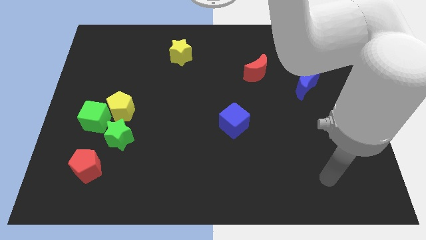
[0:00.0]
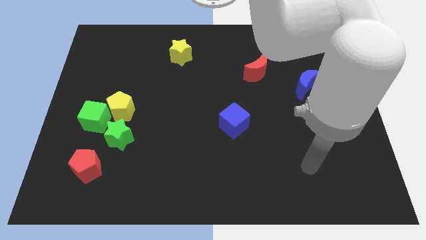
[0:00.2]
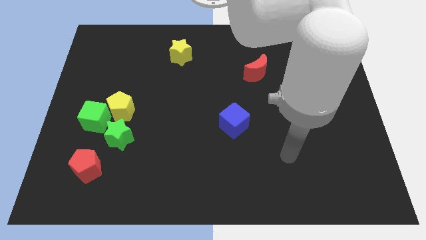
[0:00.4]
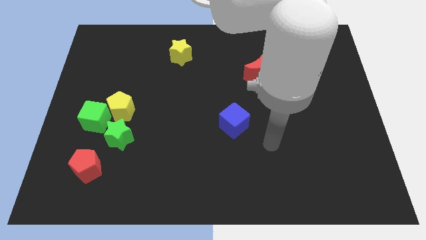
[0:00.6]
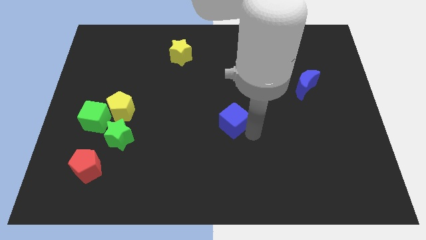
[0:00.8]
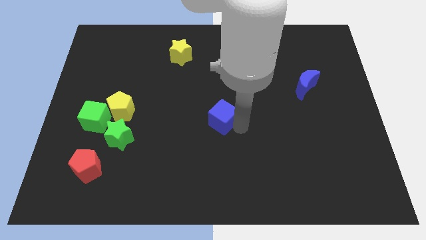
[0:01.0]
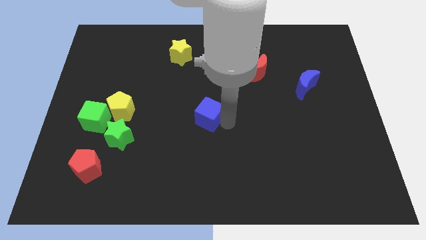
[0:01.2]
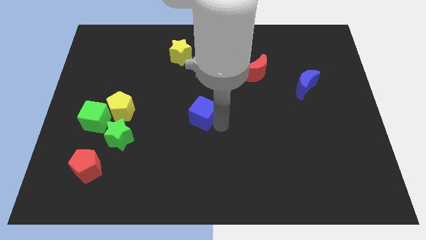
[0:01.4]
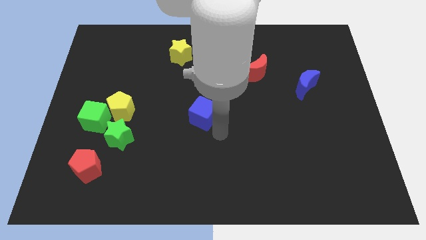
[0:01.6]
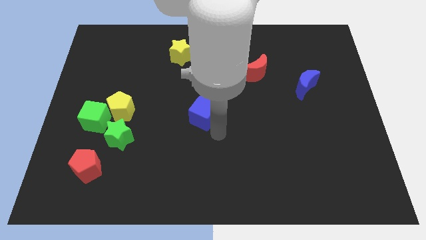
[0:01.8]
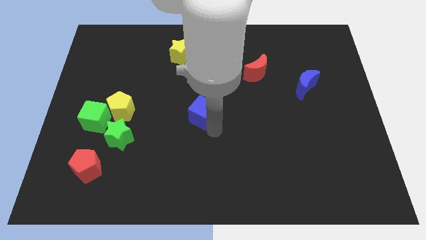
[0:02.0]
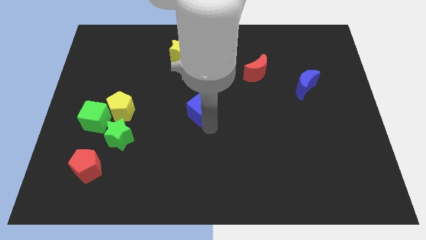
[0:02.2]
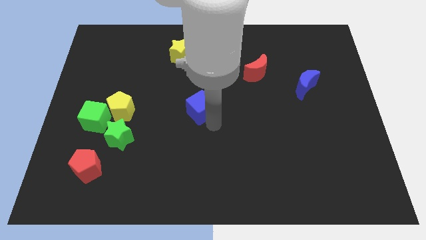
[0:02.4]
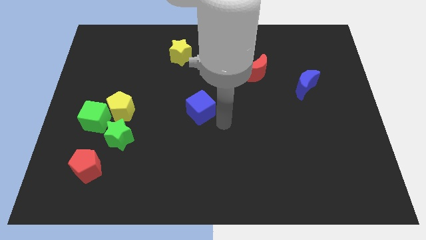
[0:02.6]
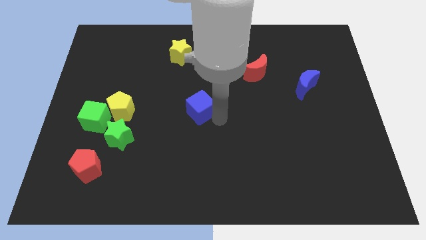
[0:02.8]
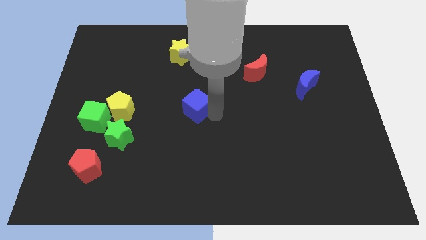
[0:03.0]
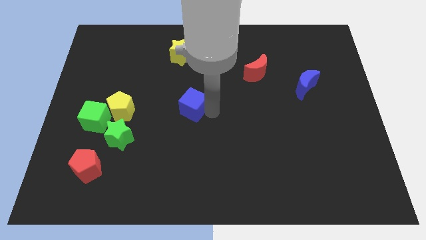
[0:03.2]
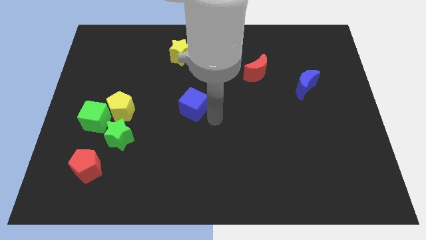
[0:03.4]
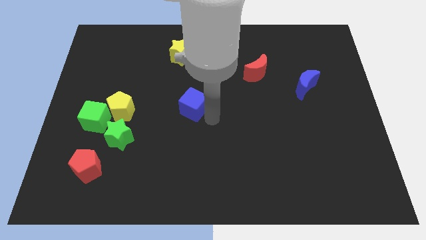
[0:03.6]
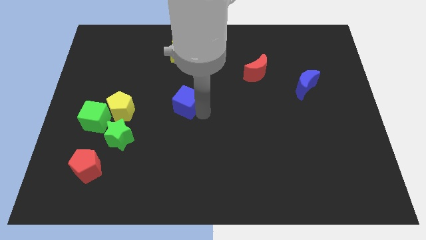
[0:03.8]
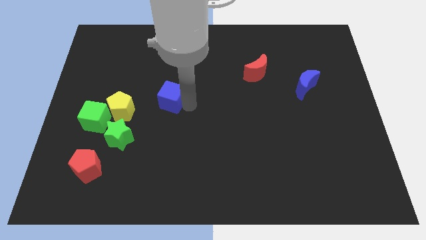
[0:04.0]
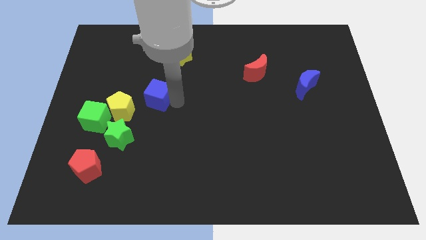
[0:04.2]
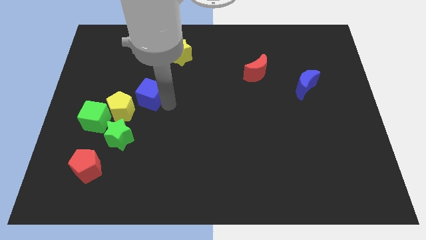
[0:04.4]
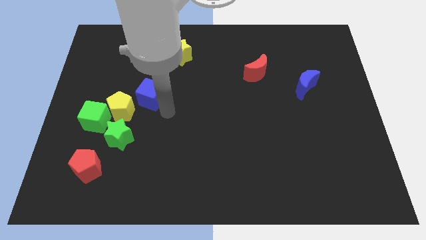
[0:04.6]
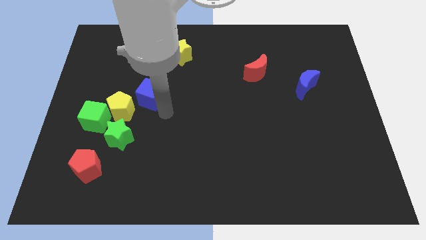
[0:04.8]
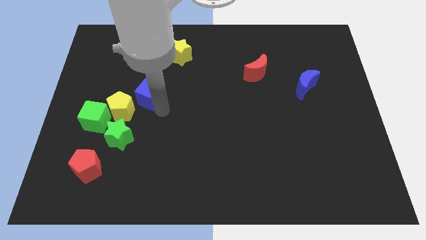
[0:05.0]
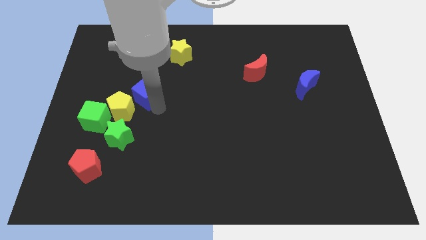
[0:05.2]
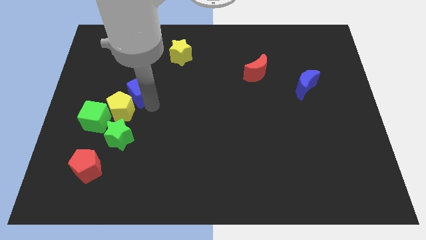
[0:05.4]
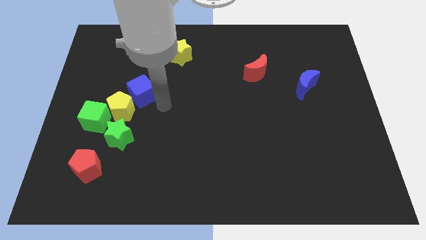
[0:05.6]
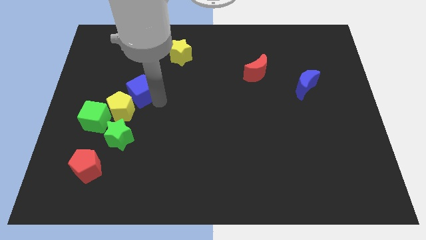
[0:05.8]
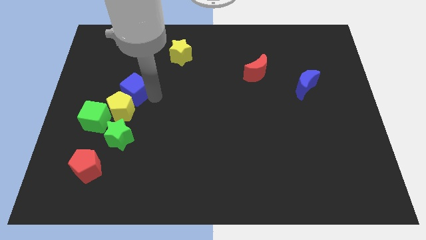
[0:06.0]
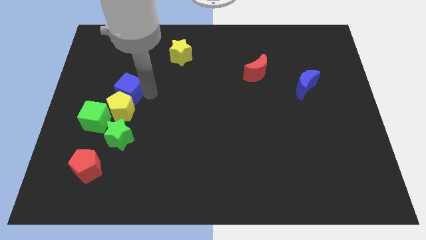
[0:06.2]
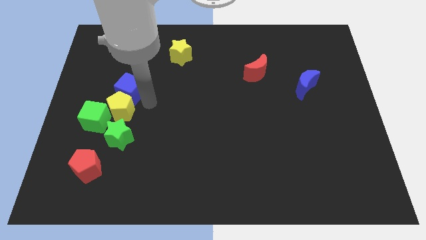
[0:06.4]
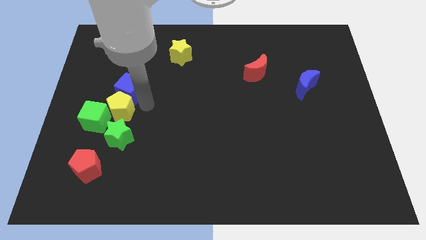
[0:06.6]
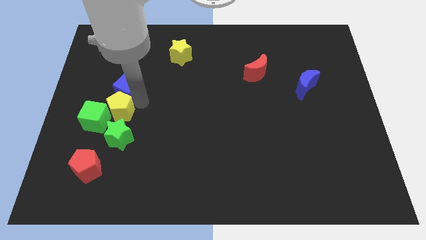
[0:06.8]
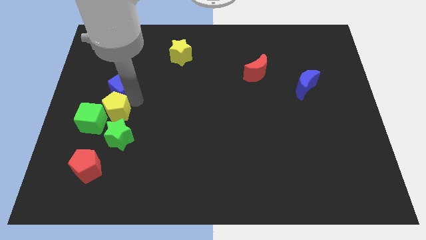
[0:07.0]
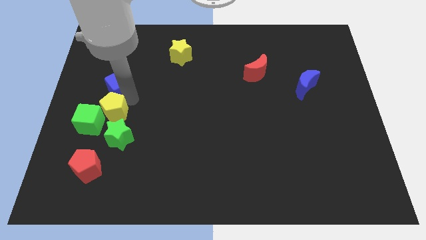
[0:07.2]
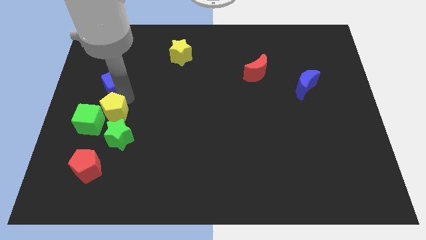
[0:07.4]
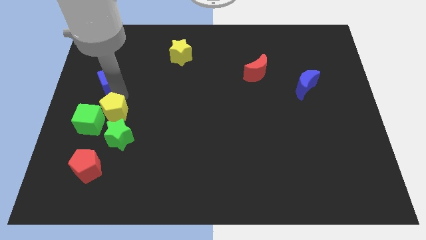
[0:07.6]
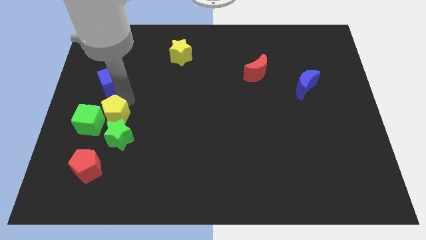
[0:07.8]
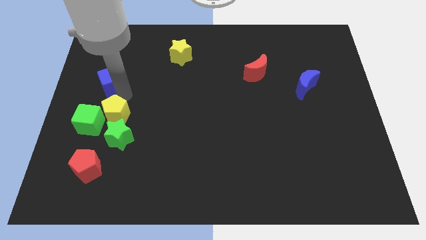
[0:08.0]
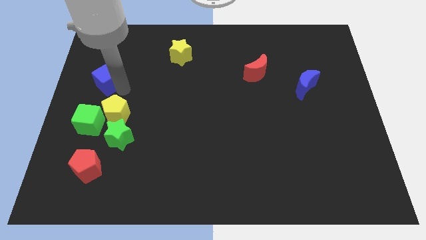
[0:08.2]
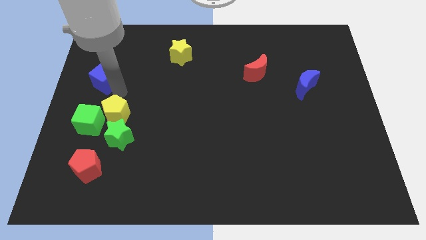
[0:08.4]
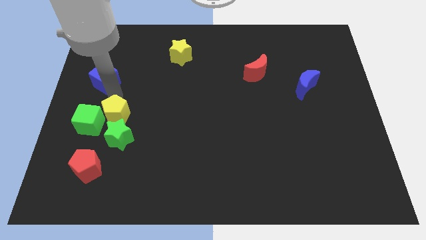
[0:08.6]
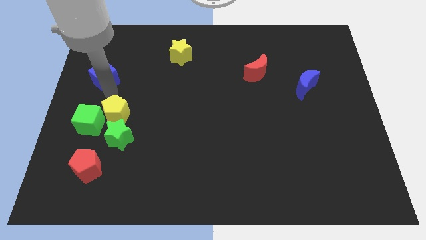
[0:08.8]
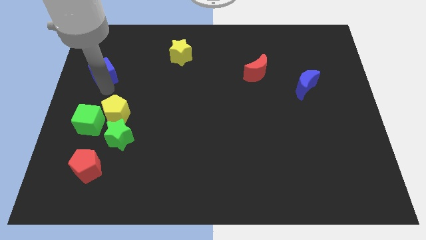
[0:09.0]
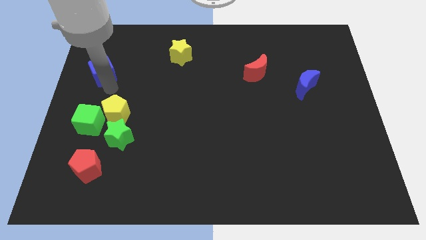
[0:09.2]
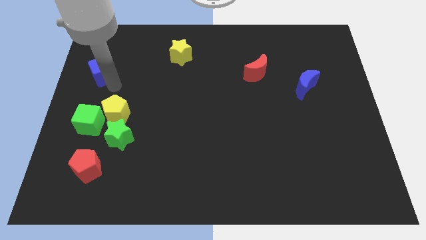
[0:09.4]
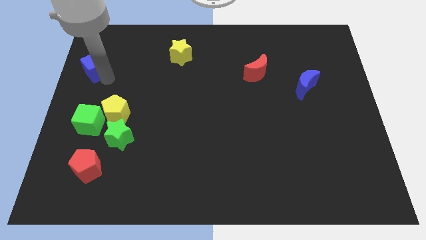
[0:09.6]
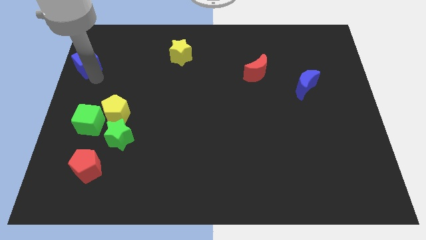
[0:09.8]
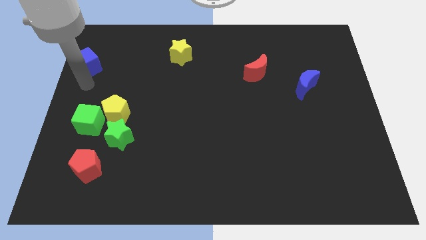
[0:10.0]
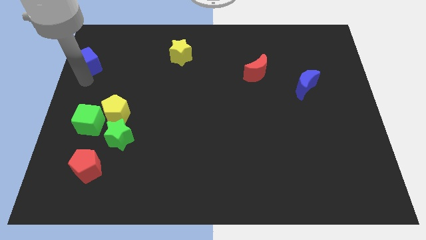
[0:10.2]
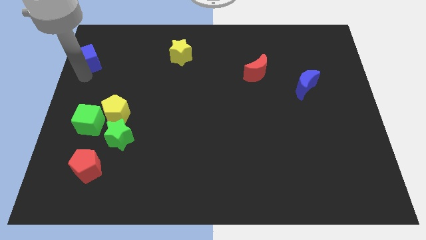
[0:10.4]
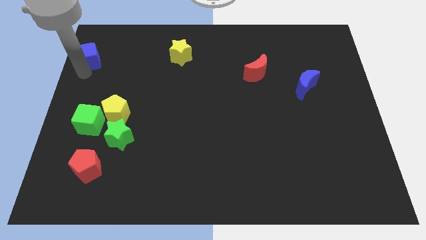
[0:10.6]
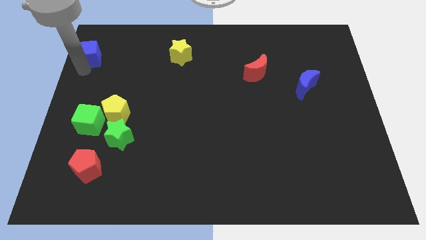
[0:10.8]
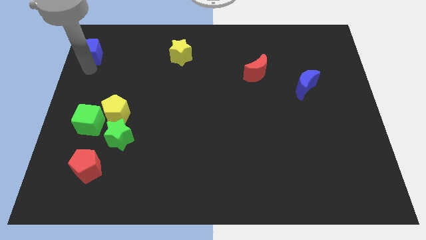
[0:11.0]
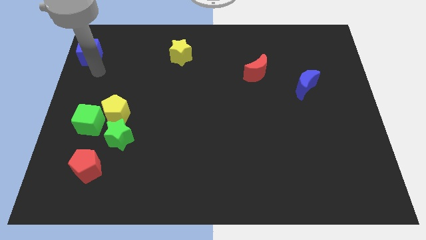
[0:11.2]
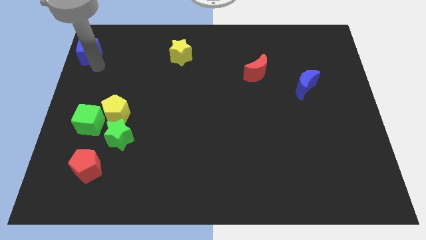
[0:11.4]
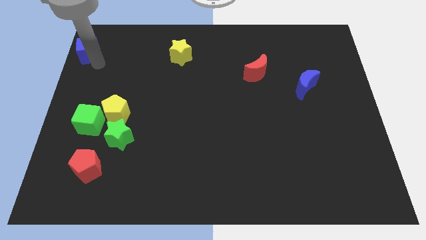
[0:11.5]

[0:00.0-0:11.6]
move the blue cube to the top left of the board

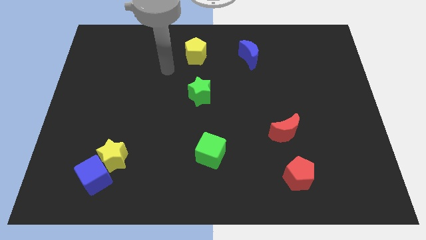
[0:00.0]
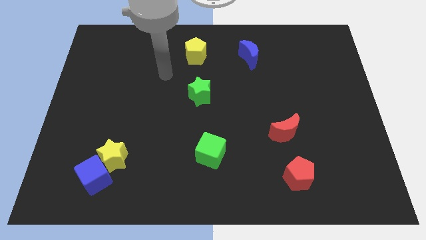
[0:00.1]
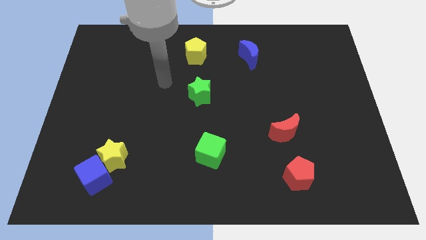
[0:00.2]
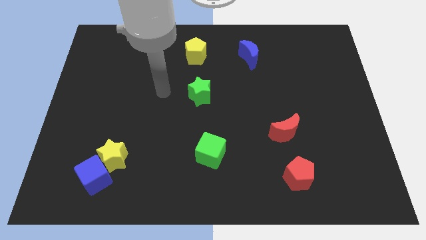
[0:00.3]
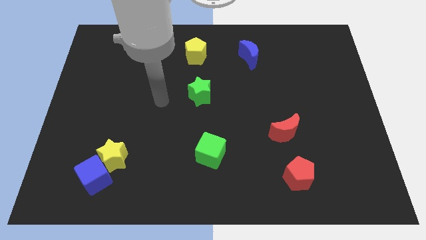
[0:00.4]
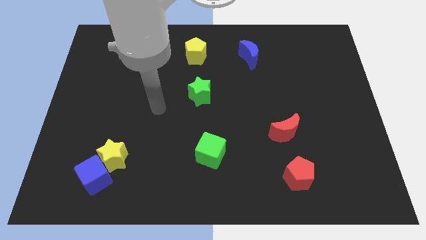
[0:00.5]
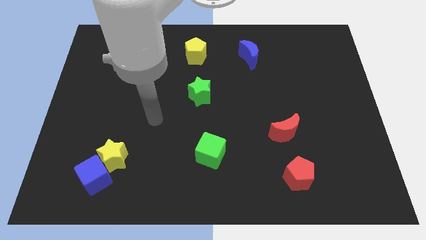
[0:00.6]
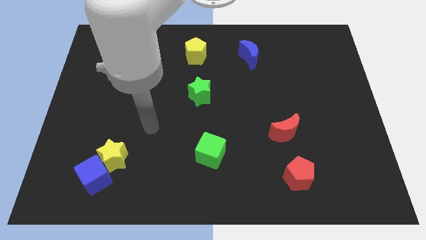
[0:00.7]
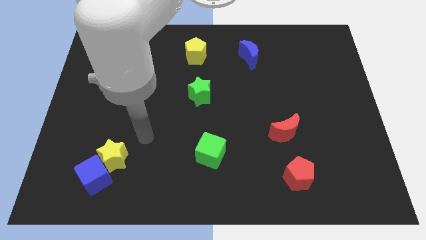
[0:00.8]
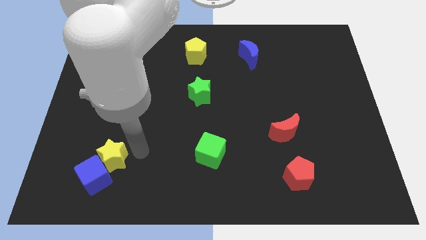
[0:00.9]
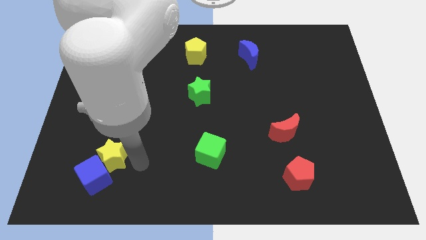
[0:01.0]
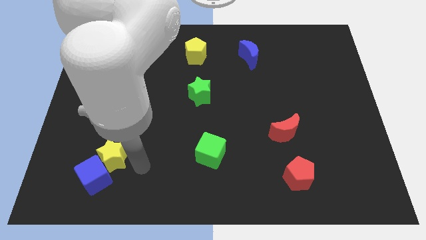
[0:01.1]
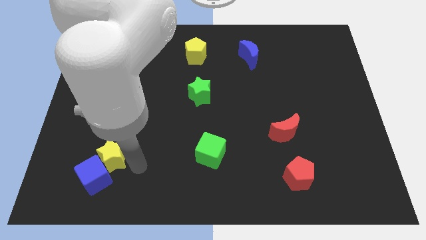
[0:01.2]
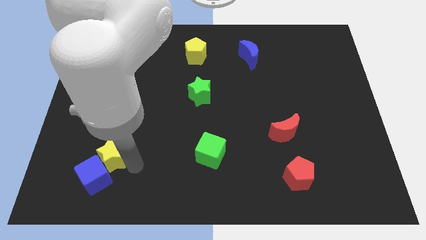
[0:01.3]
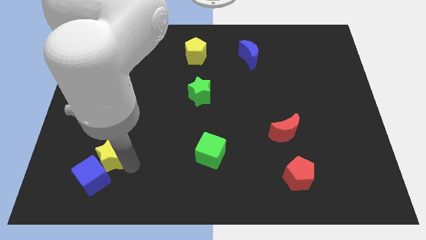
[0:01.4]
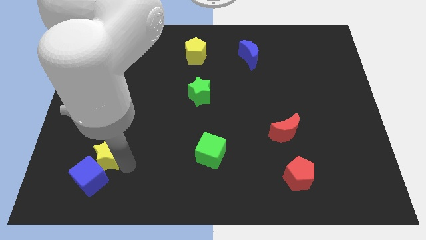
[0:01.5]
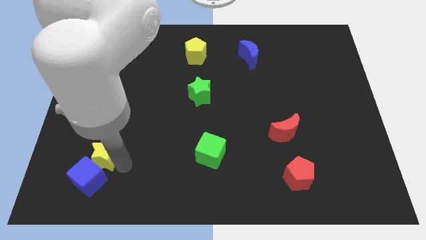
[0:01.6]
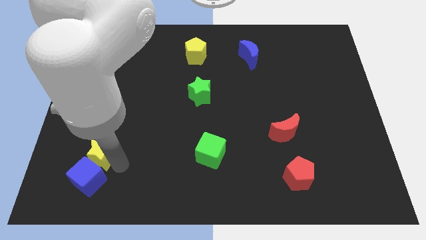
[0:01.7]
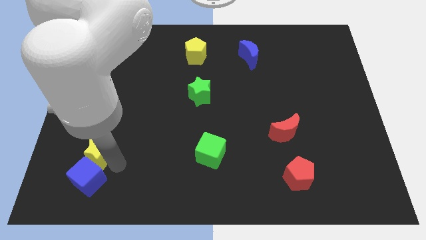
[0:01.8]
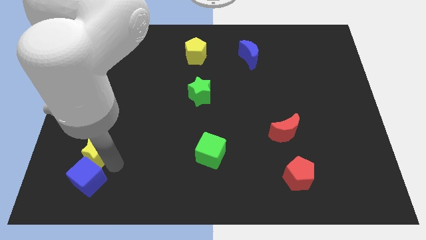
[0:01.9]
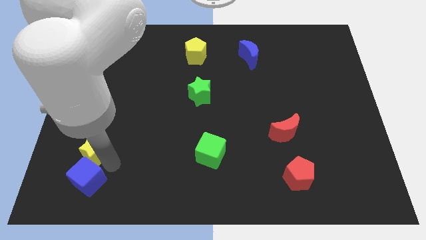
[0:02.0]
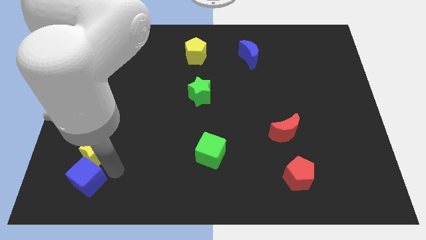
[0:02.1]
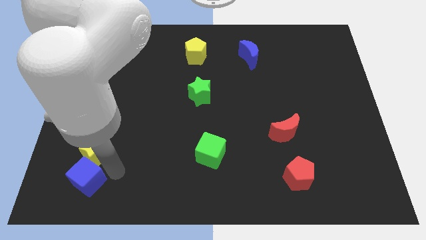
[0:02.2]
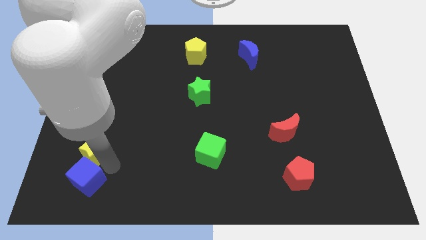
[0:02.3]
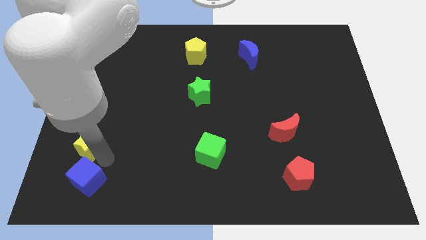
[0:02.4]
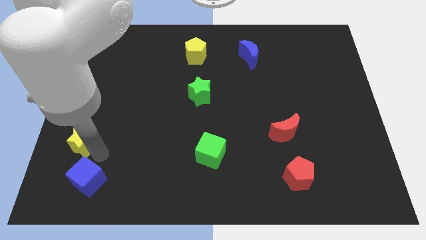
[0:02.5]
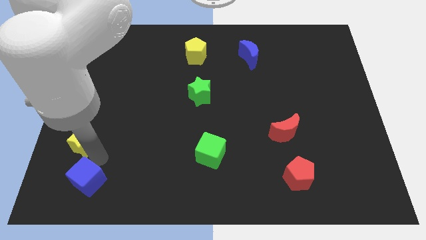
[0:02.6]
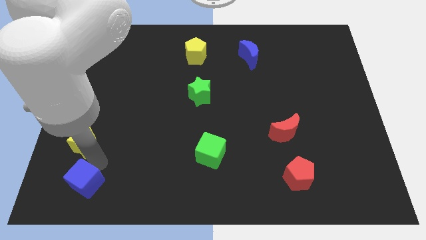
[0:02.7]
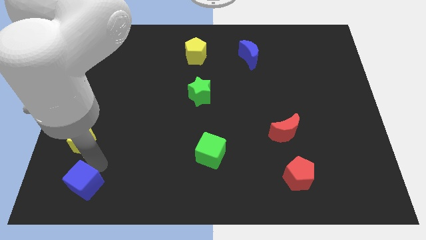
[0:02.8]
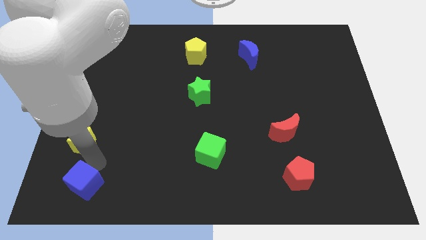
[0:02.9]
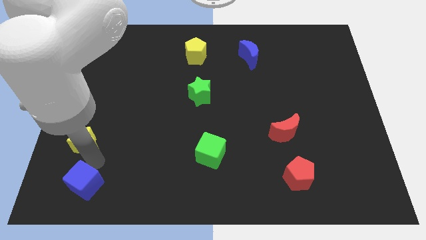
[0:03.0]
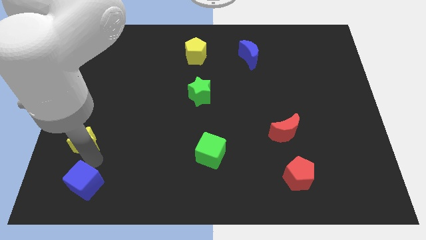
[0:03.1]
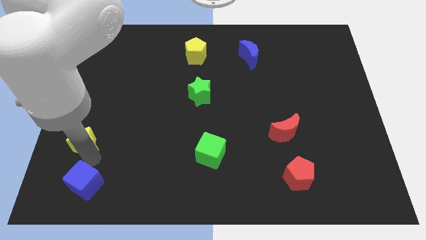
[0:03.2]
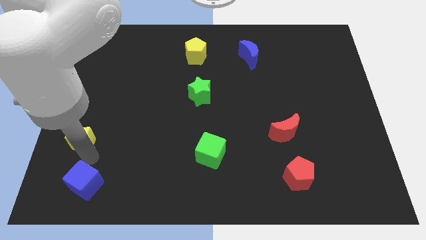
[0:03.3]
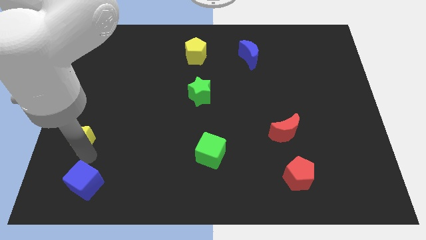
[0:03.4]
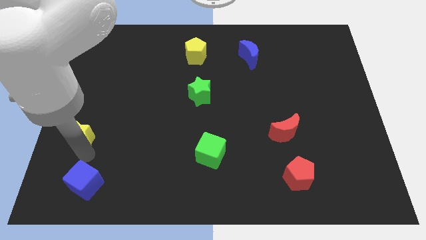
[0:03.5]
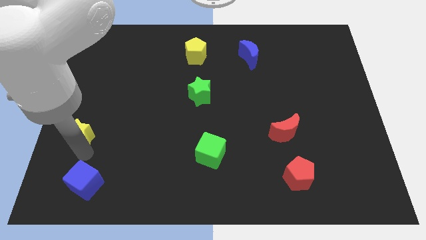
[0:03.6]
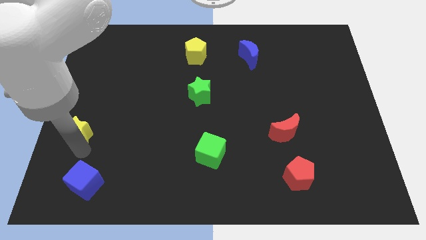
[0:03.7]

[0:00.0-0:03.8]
push the yellow star to the left side
